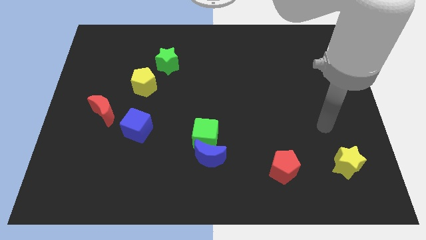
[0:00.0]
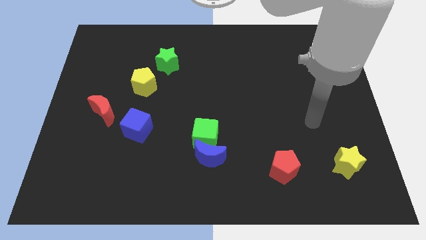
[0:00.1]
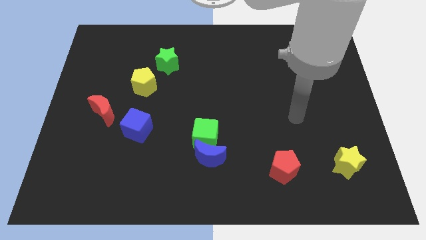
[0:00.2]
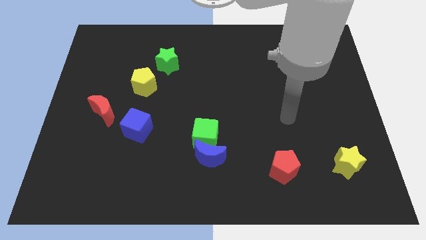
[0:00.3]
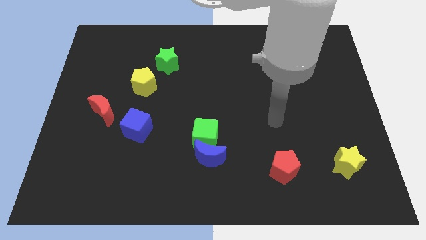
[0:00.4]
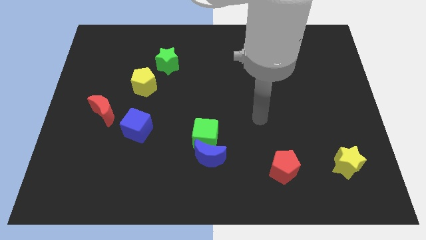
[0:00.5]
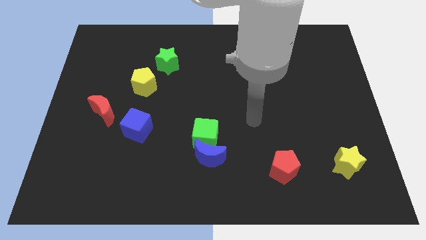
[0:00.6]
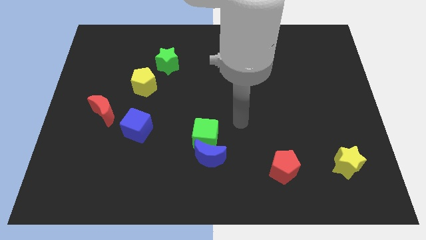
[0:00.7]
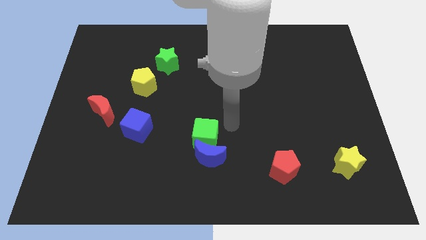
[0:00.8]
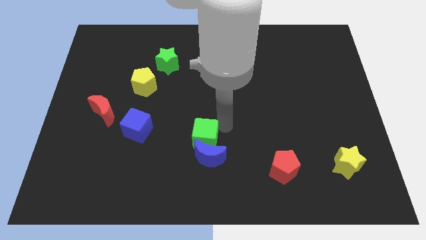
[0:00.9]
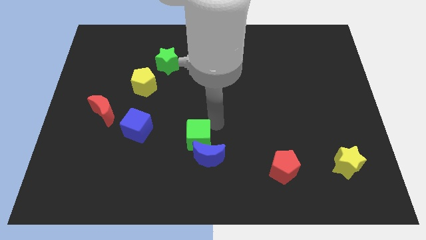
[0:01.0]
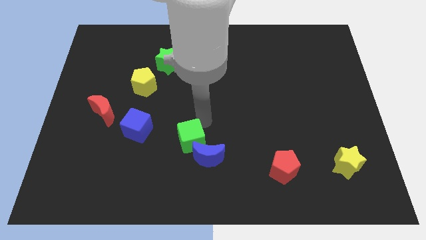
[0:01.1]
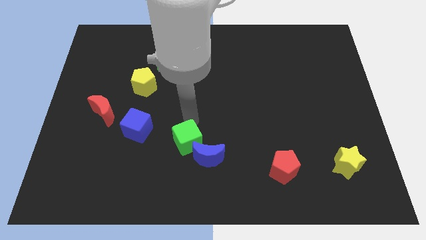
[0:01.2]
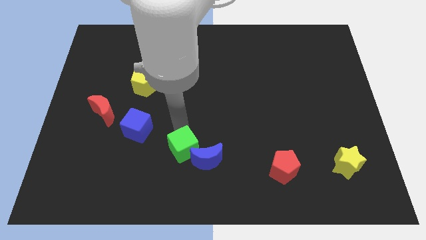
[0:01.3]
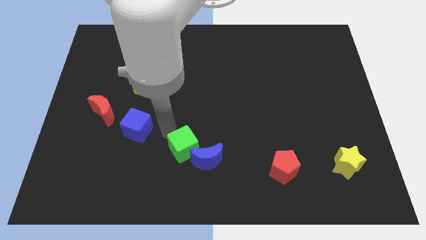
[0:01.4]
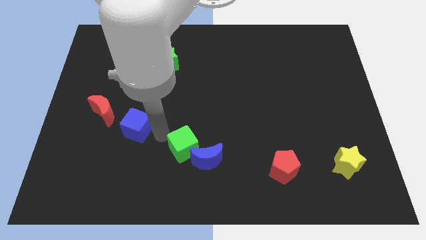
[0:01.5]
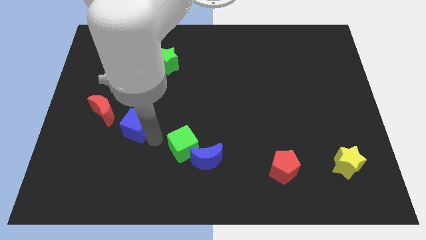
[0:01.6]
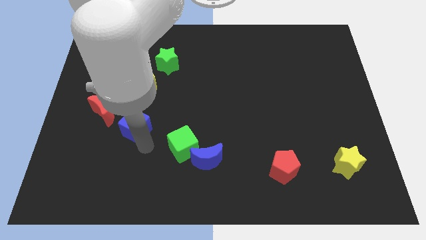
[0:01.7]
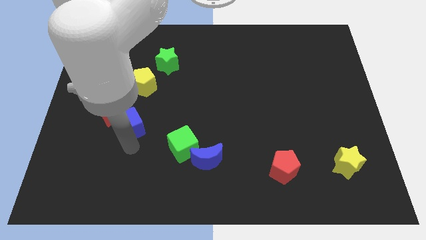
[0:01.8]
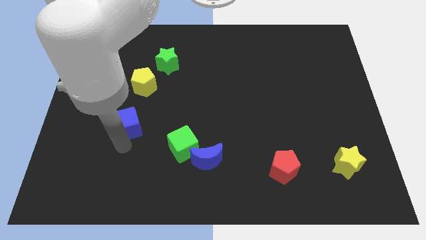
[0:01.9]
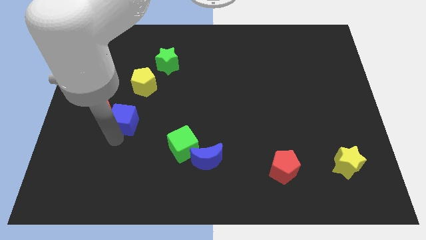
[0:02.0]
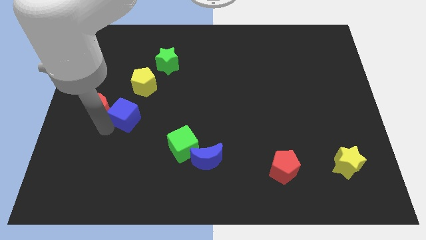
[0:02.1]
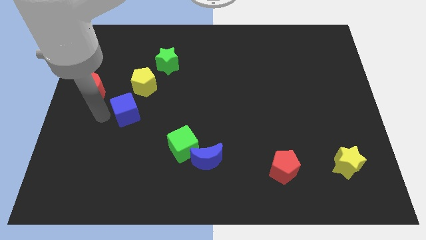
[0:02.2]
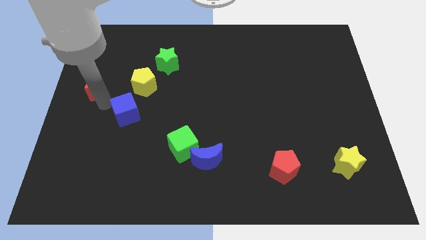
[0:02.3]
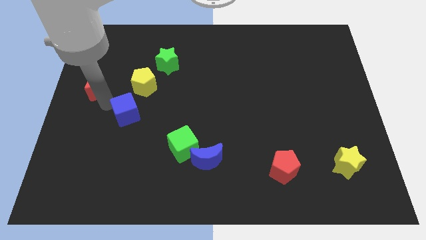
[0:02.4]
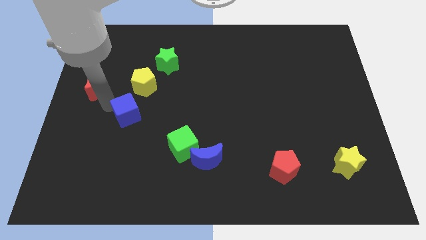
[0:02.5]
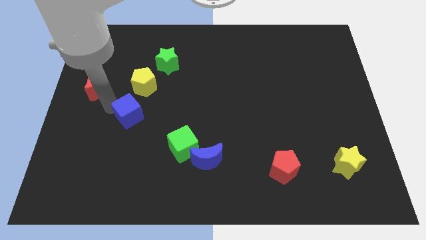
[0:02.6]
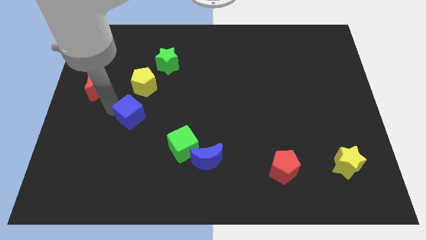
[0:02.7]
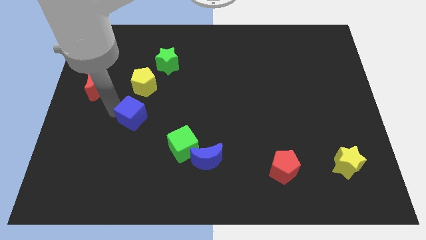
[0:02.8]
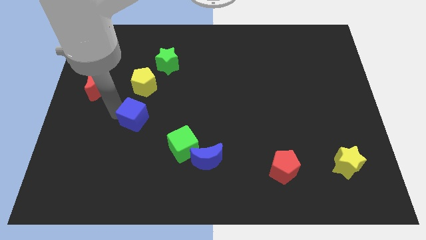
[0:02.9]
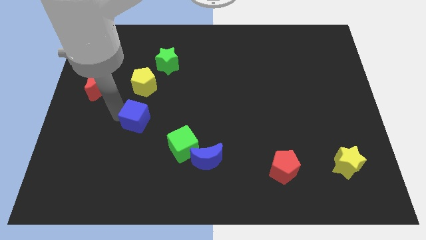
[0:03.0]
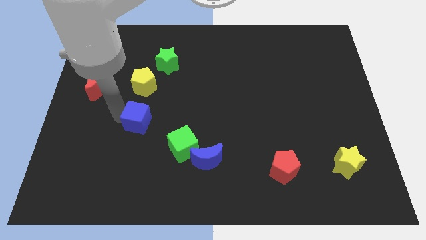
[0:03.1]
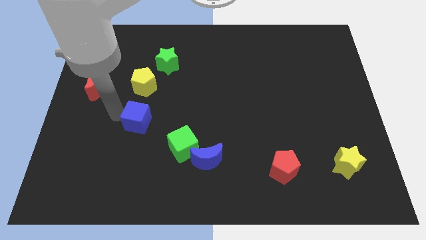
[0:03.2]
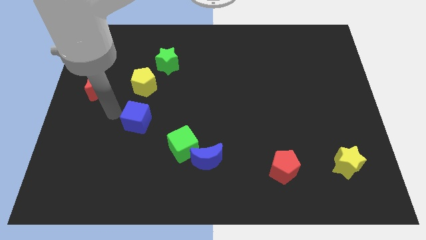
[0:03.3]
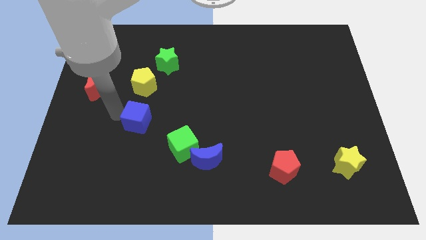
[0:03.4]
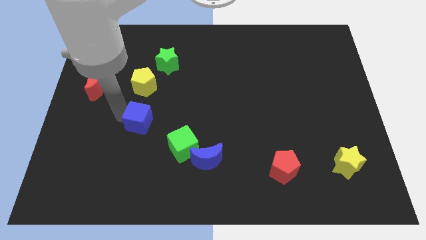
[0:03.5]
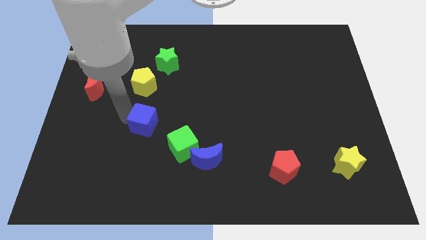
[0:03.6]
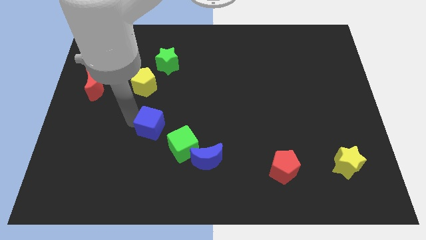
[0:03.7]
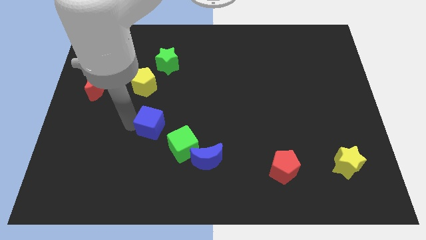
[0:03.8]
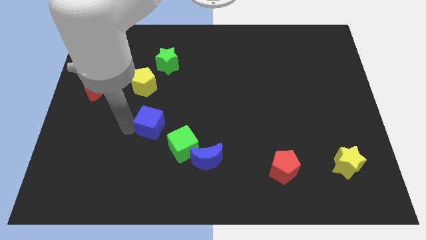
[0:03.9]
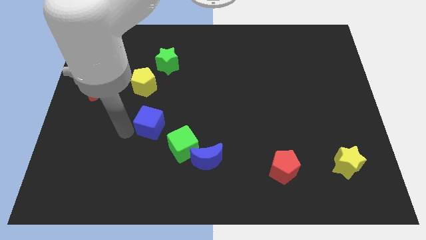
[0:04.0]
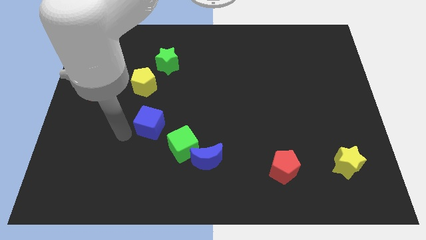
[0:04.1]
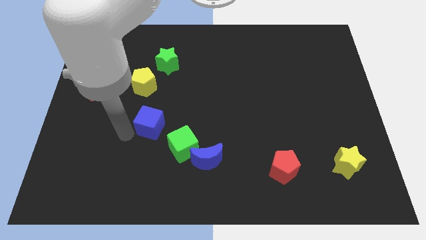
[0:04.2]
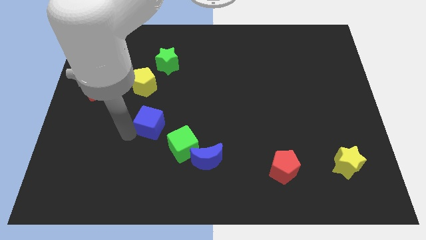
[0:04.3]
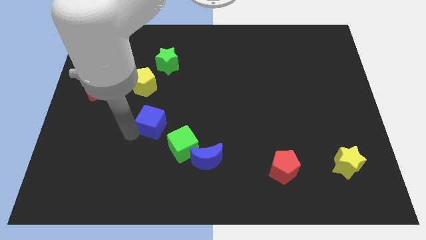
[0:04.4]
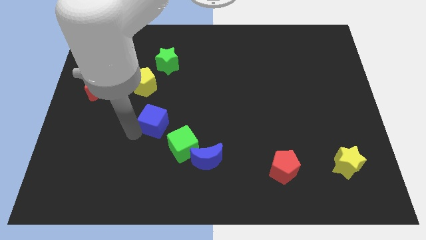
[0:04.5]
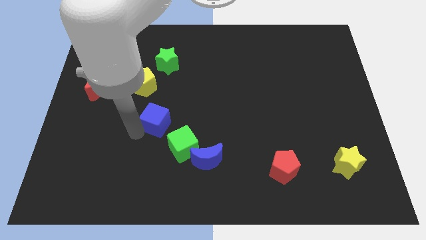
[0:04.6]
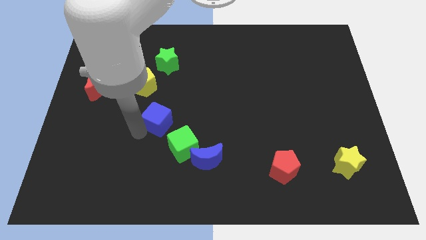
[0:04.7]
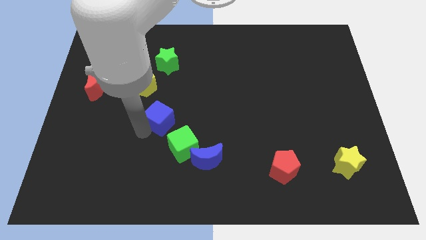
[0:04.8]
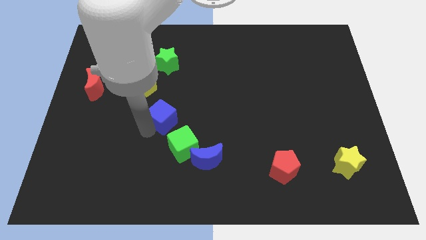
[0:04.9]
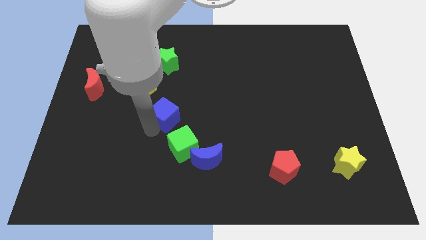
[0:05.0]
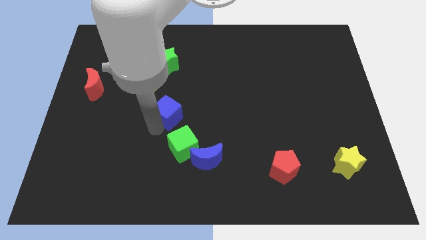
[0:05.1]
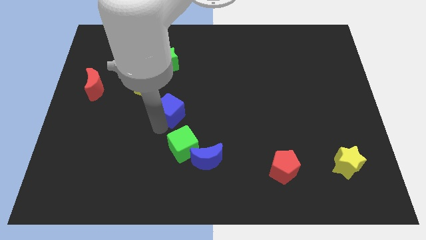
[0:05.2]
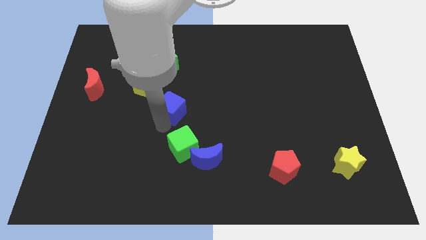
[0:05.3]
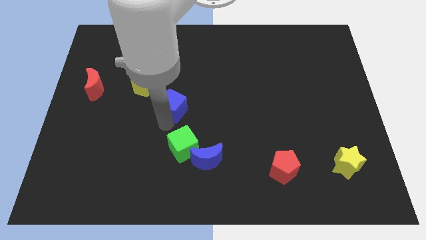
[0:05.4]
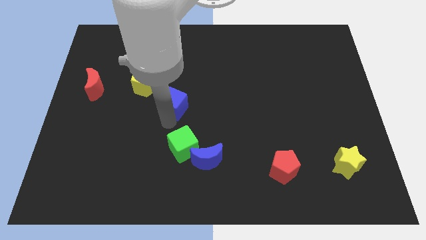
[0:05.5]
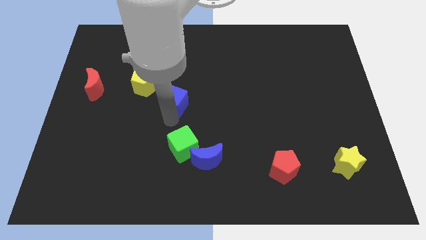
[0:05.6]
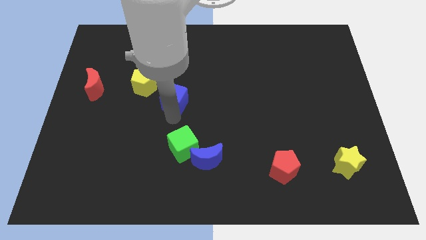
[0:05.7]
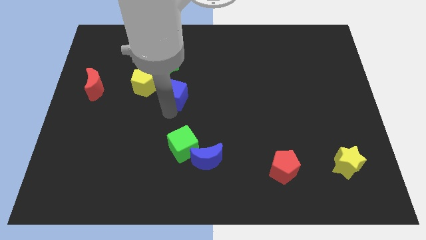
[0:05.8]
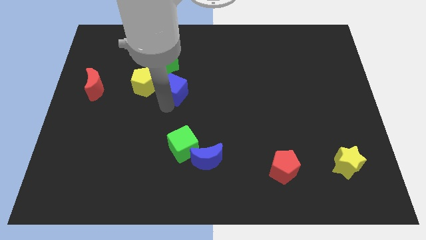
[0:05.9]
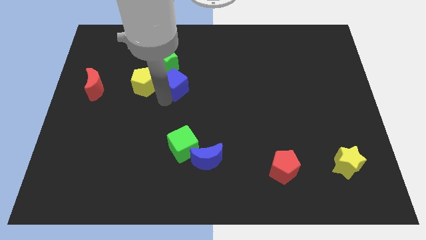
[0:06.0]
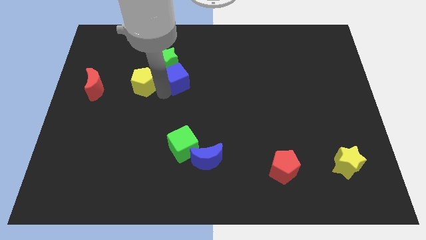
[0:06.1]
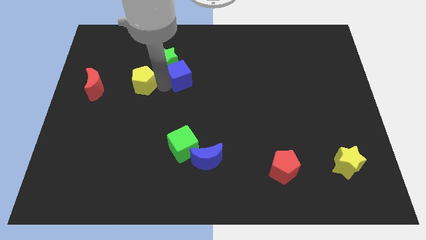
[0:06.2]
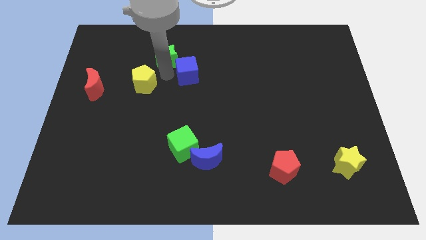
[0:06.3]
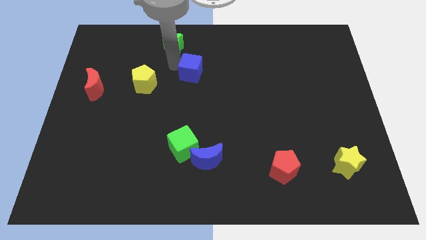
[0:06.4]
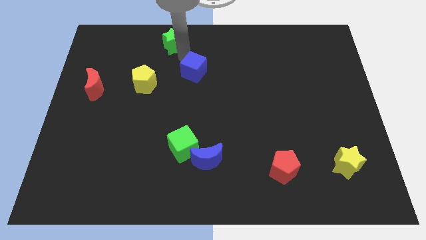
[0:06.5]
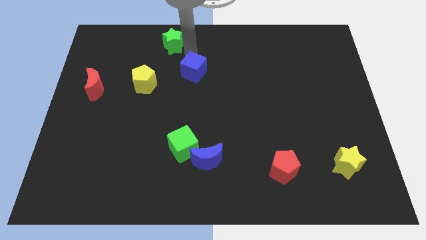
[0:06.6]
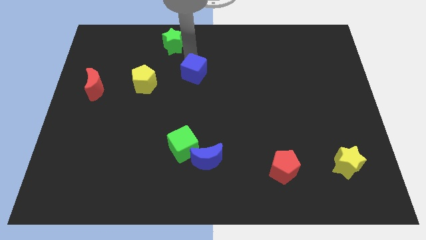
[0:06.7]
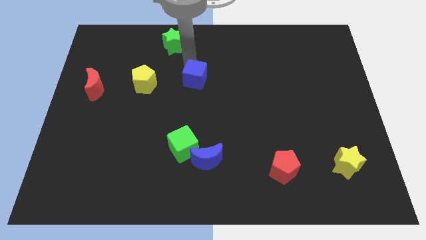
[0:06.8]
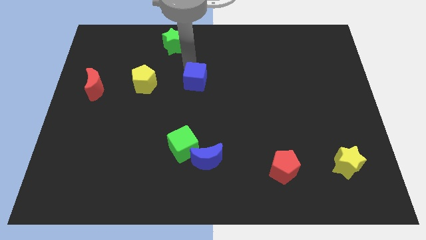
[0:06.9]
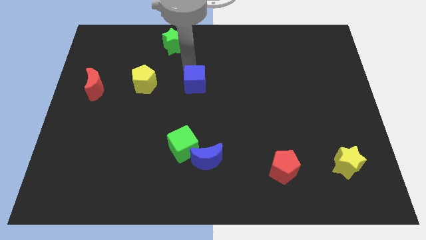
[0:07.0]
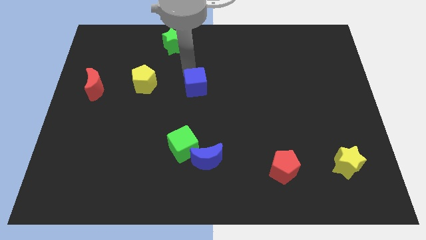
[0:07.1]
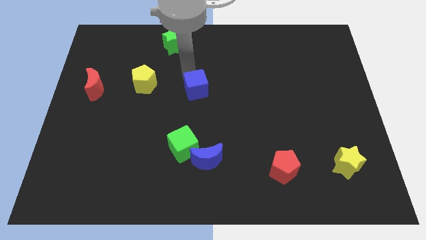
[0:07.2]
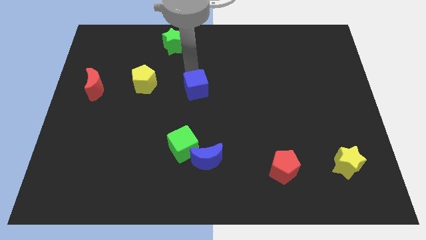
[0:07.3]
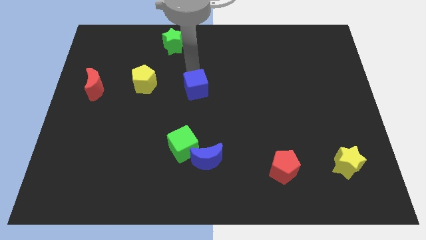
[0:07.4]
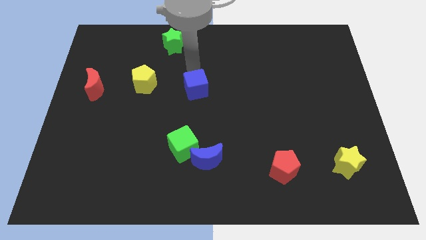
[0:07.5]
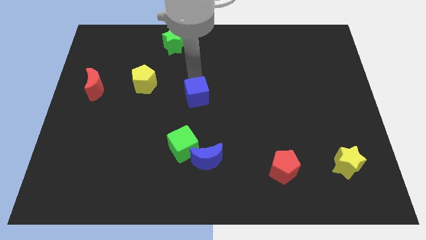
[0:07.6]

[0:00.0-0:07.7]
move the blue cube to the right somewhat

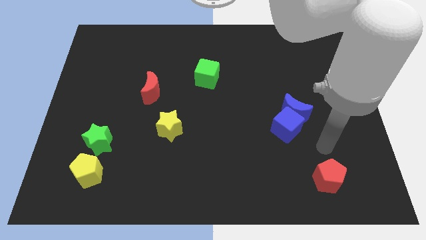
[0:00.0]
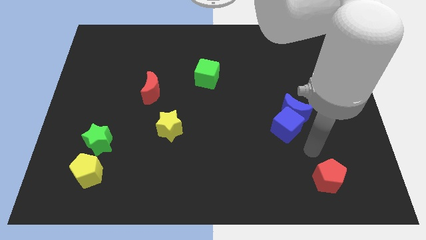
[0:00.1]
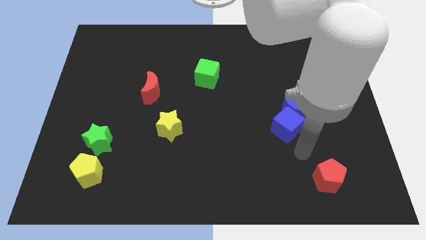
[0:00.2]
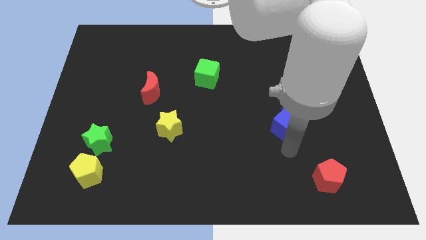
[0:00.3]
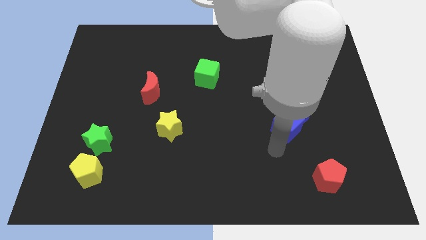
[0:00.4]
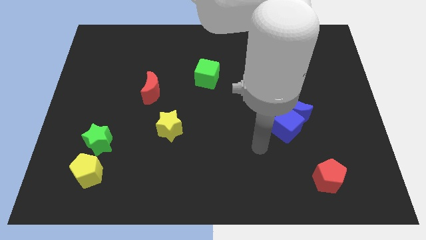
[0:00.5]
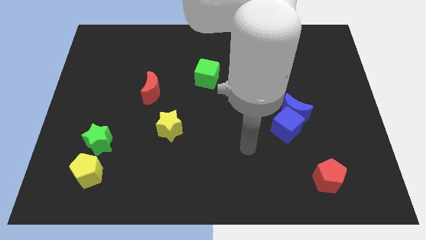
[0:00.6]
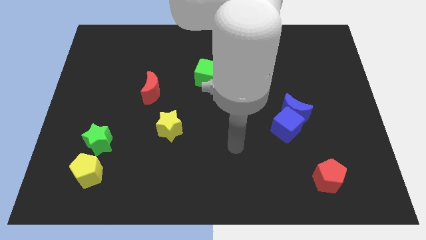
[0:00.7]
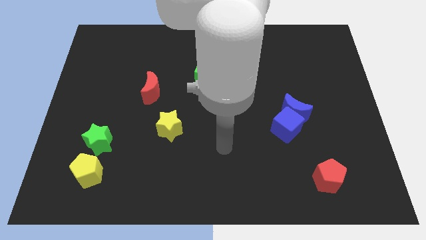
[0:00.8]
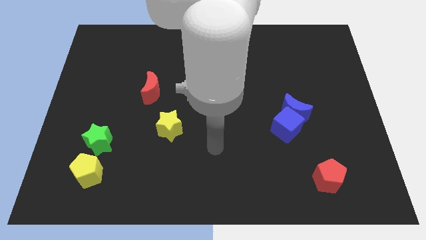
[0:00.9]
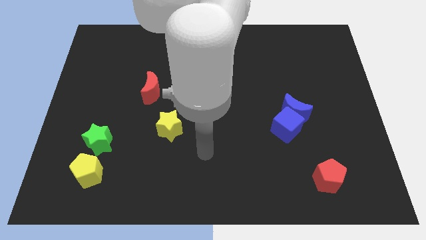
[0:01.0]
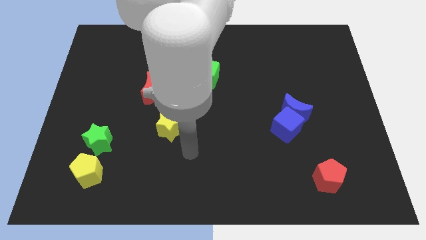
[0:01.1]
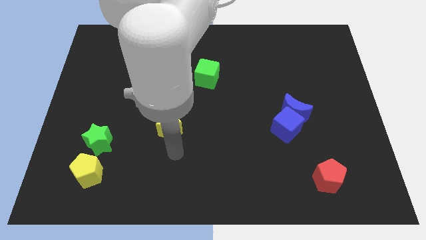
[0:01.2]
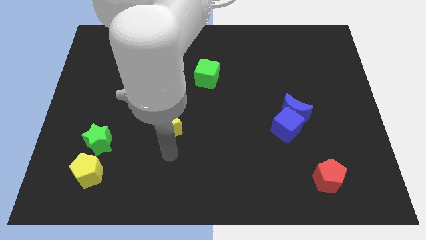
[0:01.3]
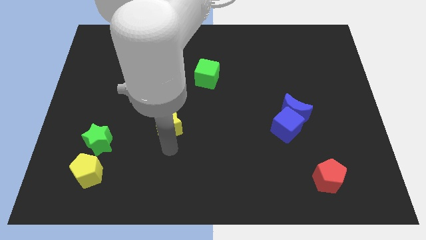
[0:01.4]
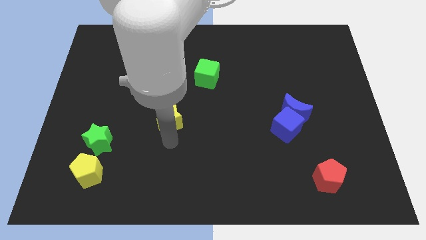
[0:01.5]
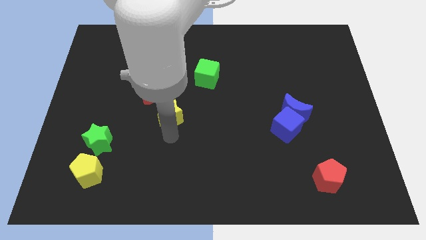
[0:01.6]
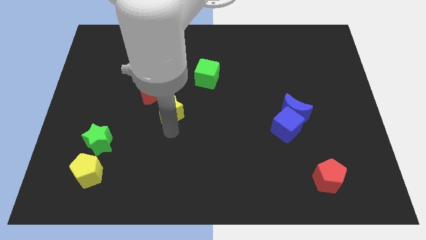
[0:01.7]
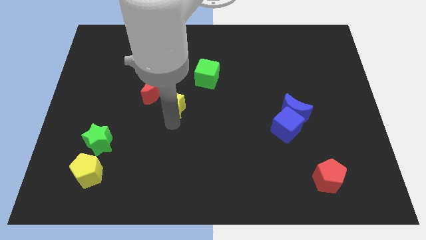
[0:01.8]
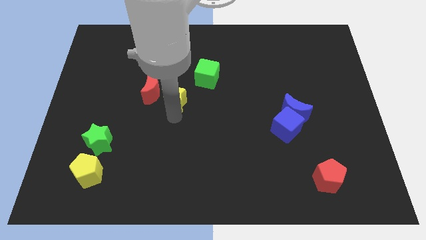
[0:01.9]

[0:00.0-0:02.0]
move the yellow star a bit up
